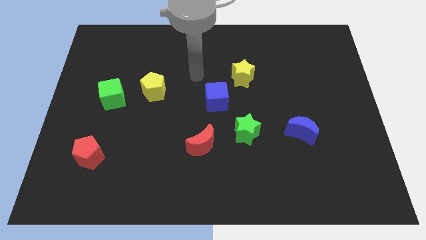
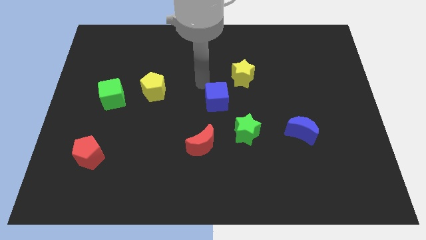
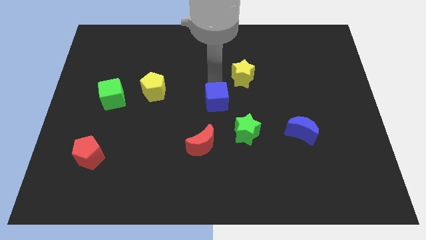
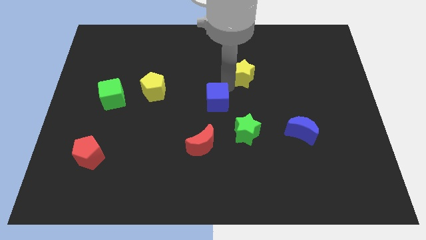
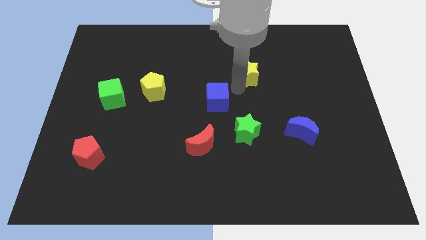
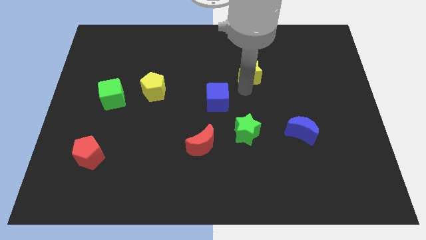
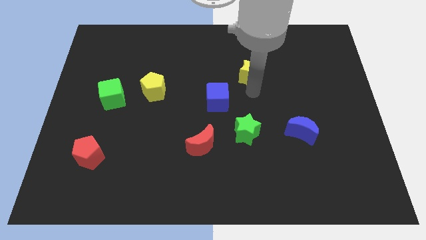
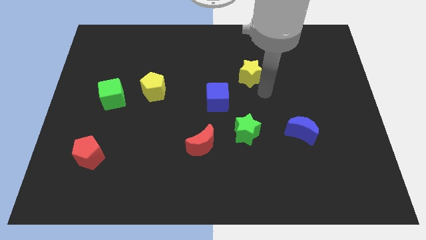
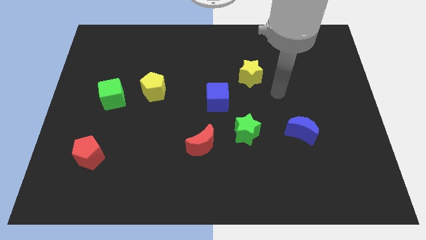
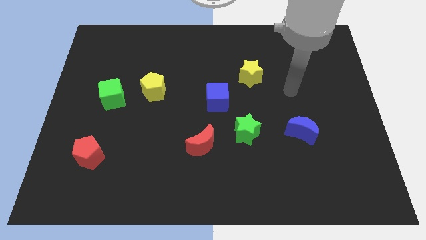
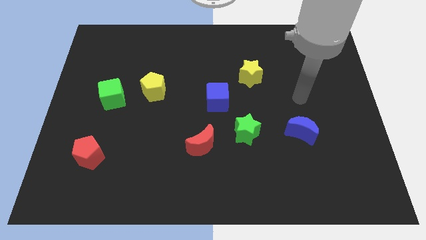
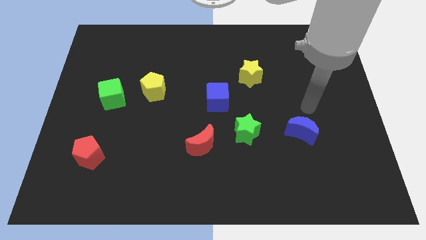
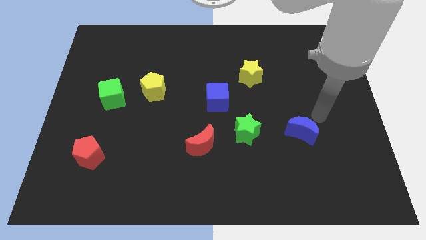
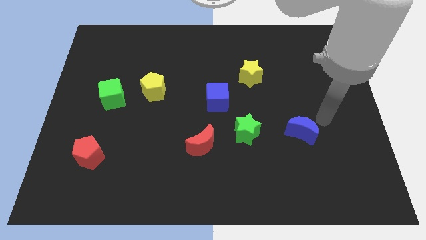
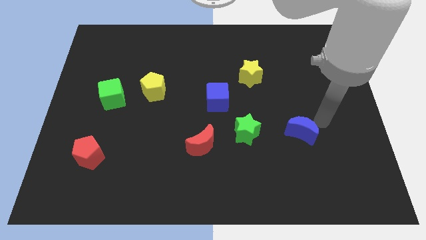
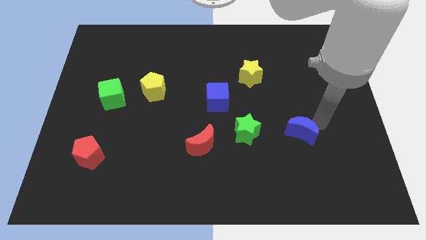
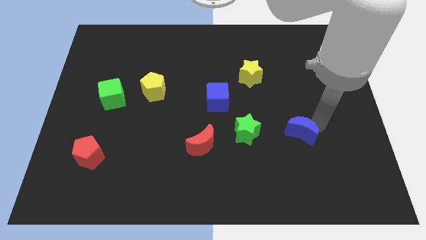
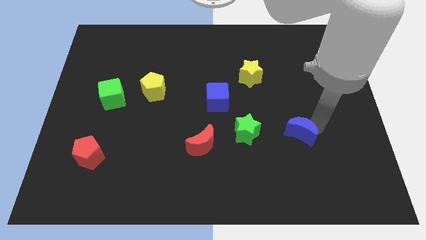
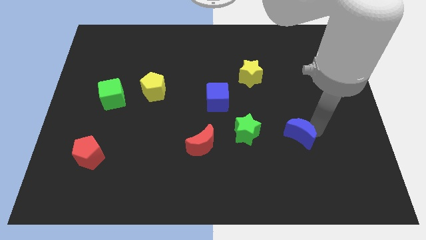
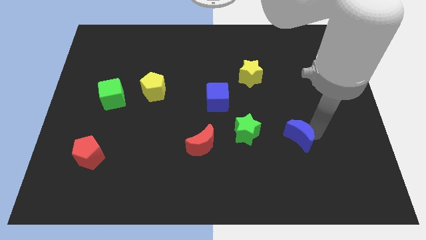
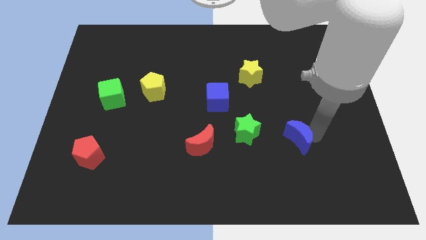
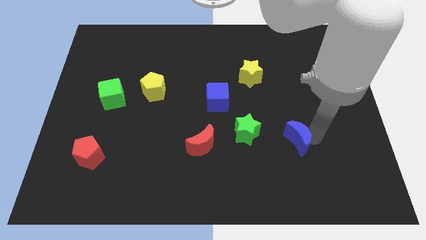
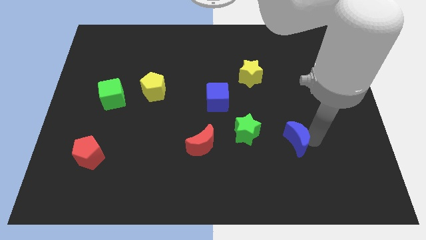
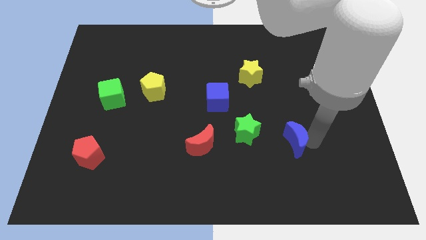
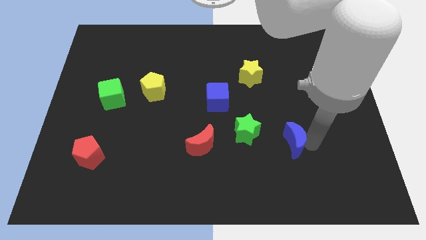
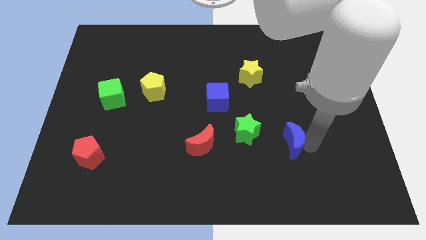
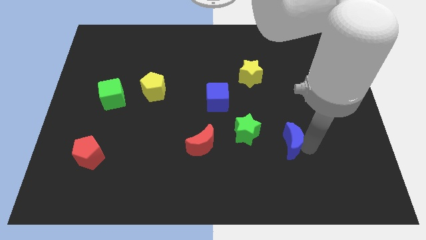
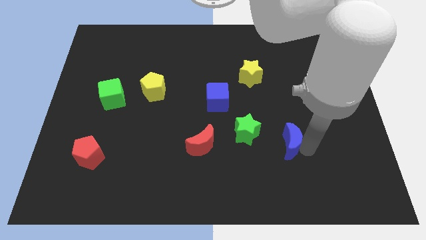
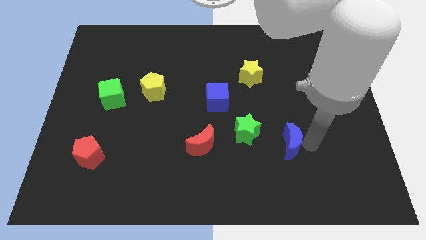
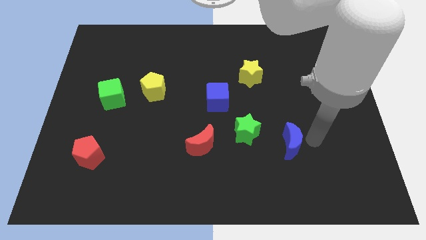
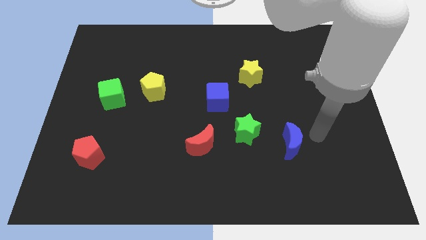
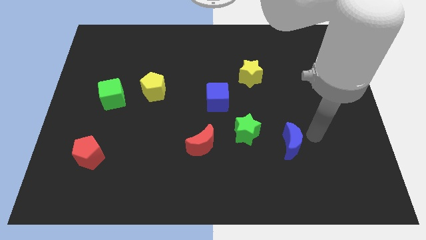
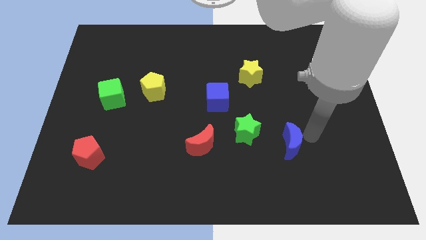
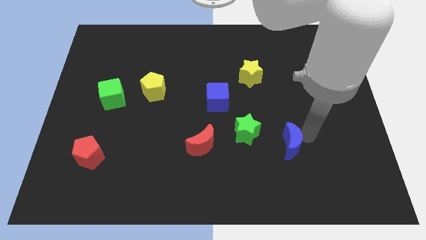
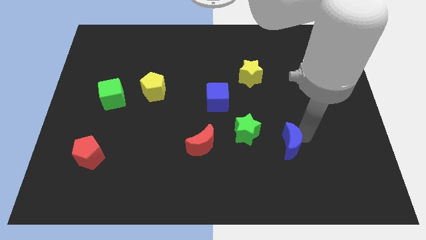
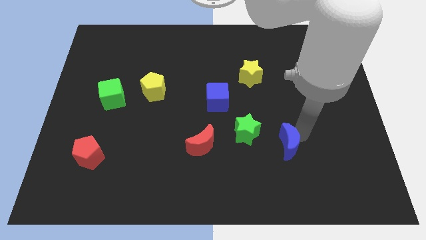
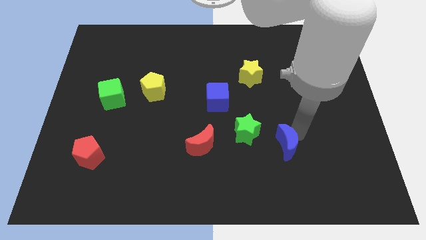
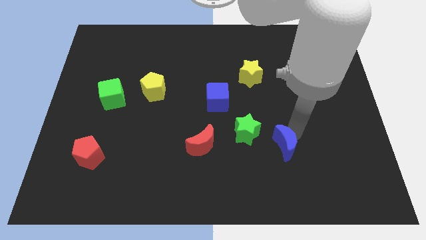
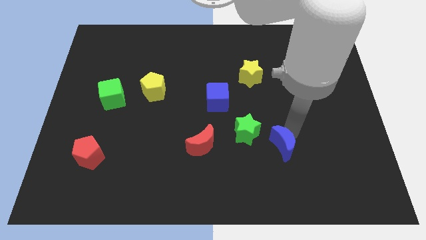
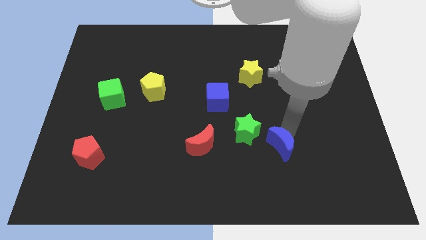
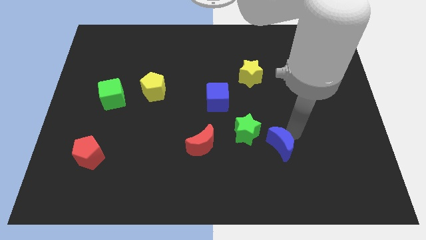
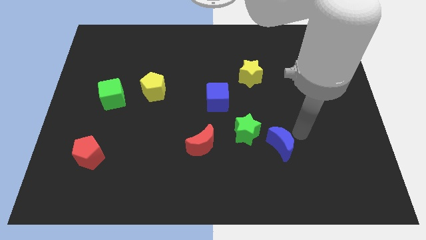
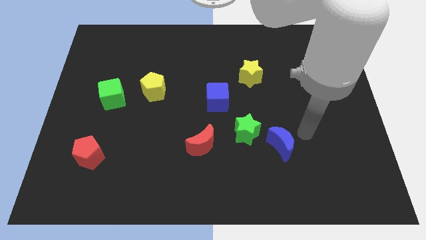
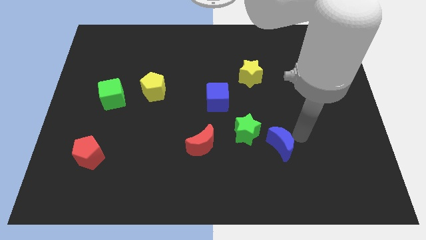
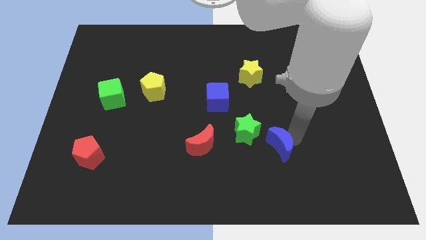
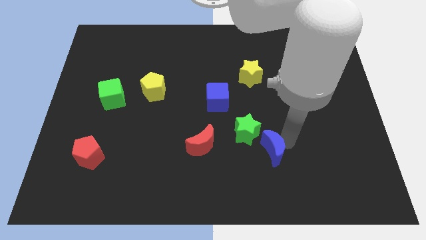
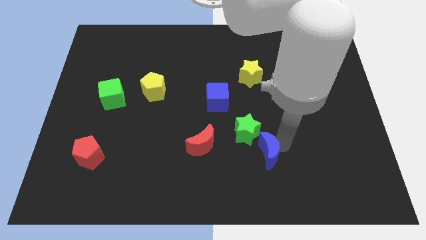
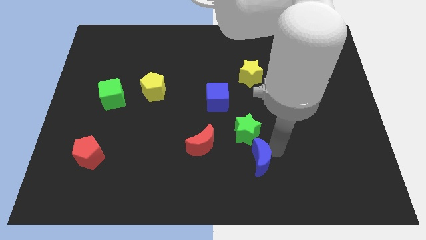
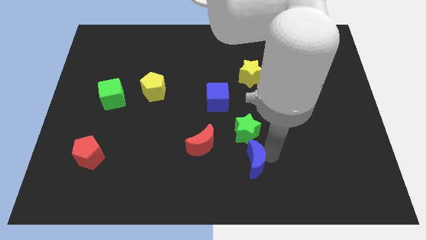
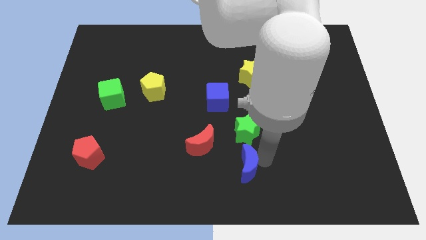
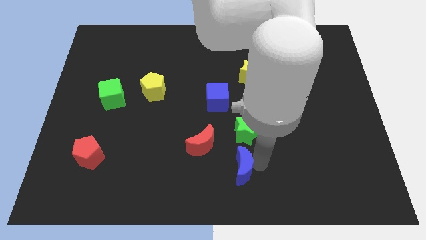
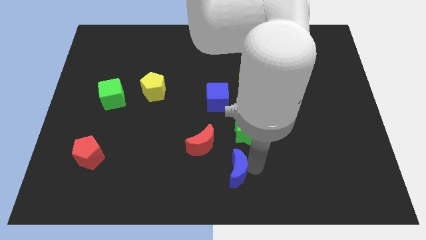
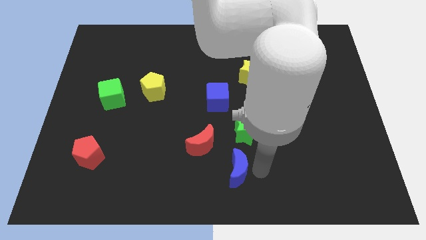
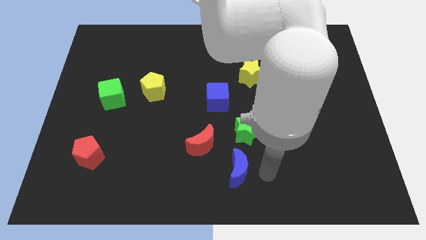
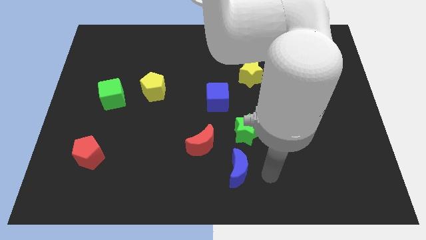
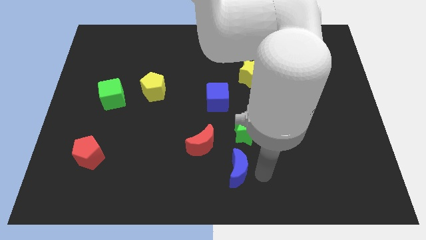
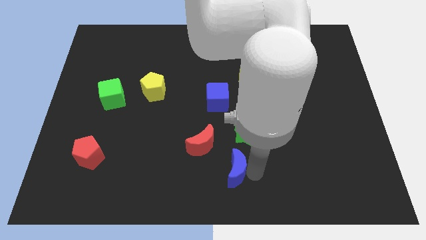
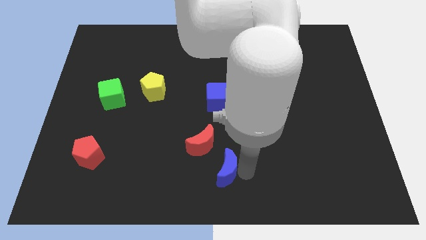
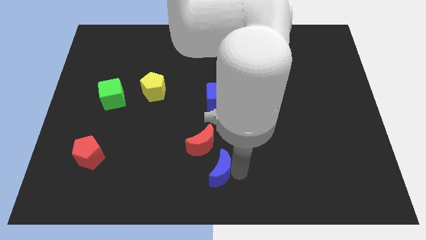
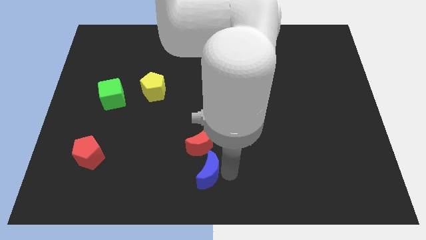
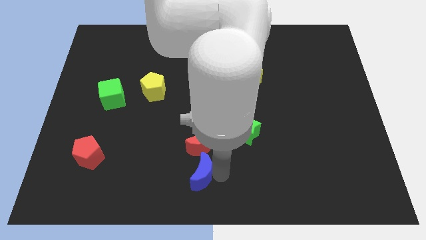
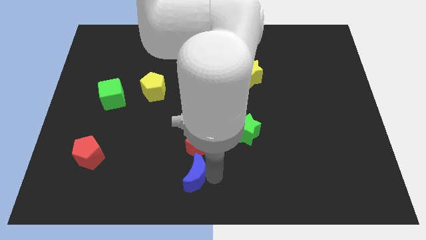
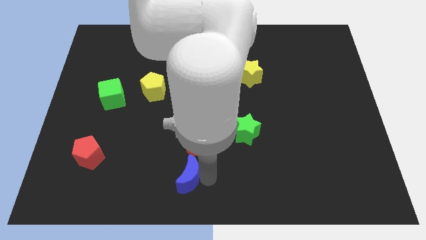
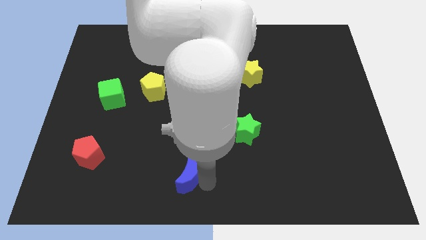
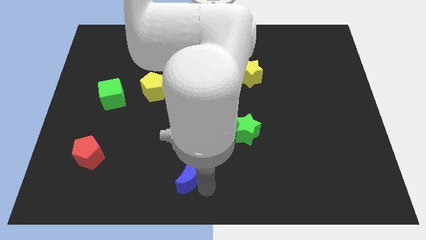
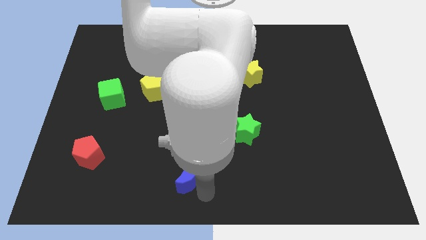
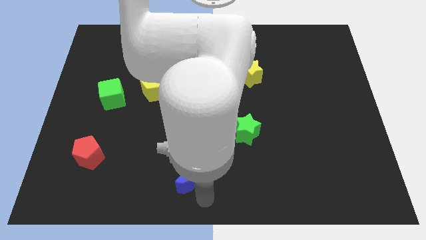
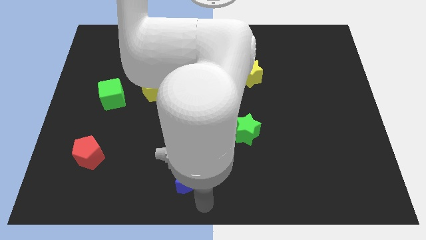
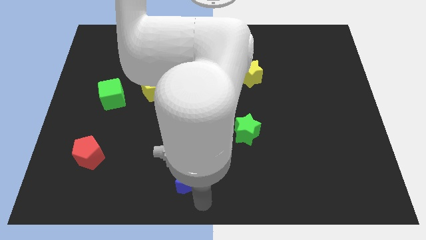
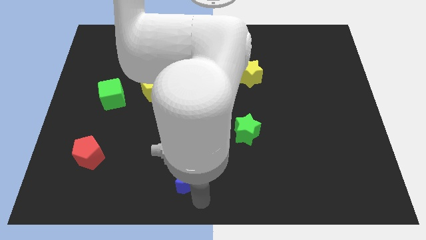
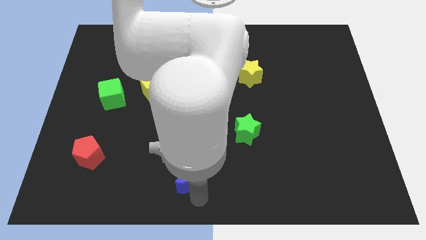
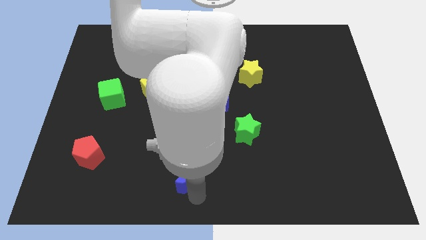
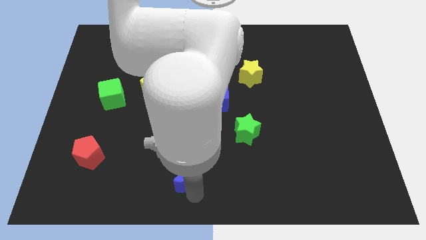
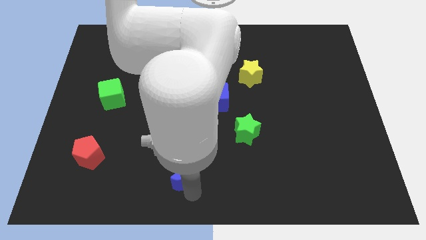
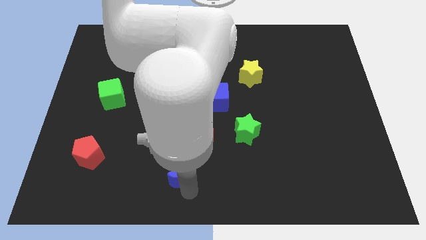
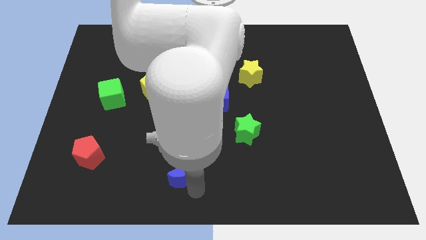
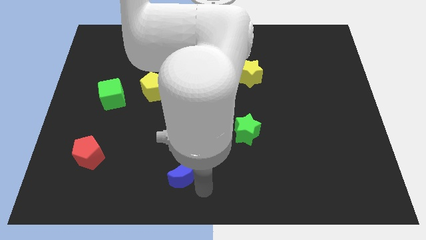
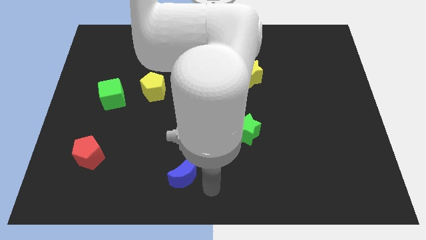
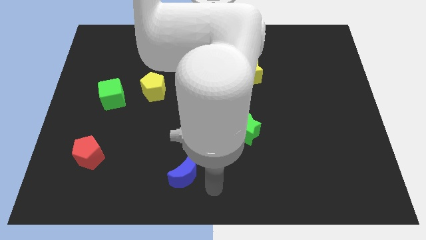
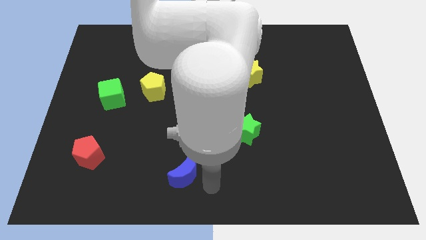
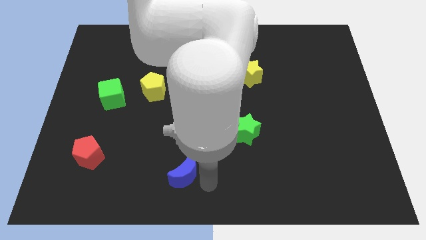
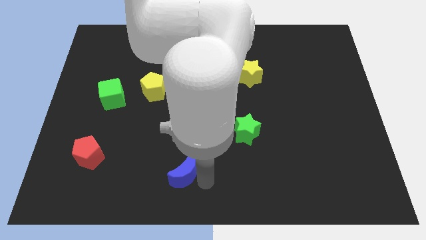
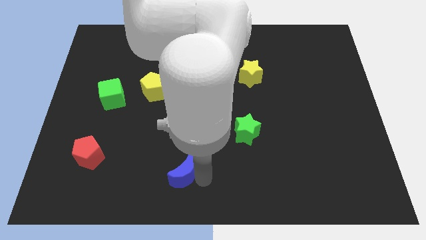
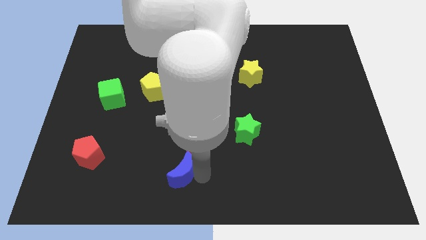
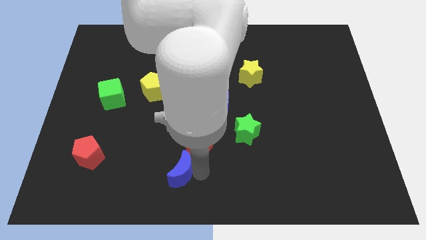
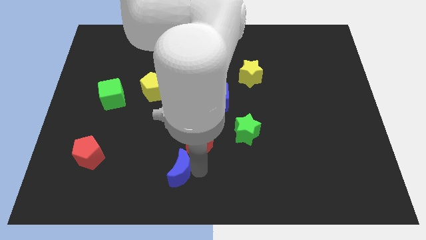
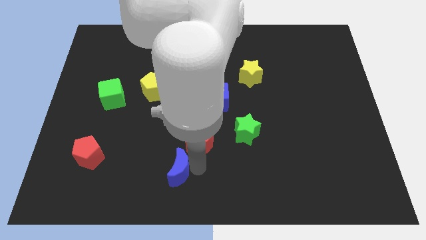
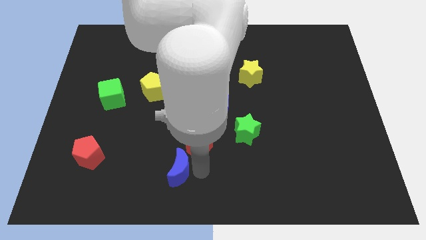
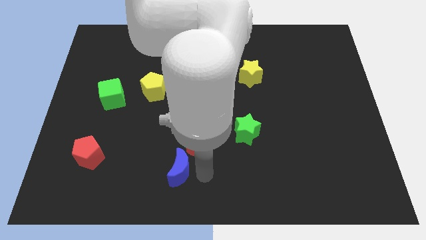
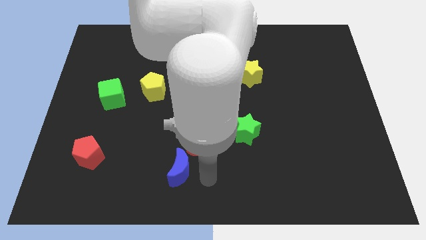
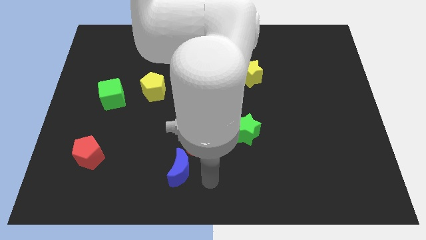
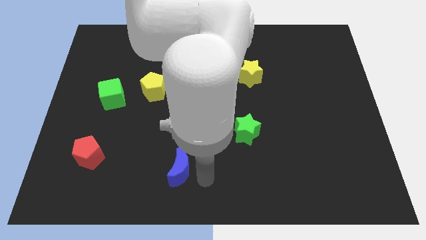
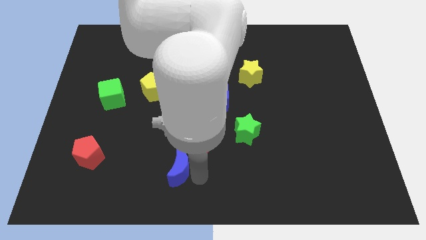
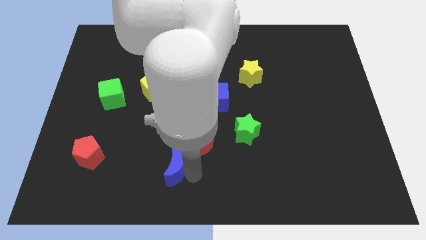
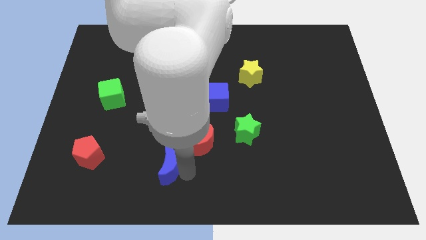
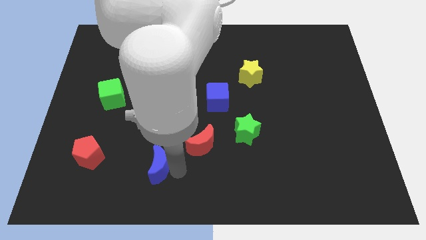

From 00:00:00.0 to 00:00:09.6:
put the blue moon right of the red pentagon
